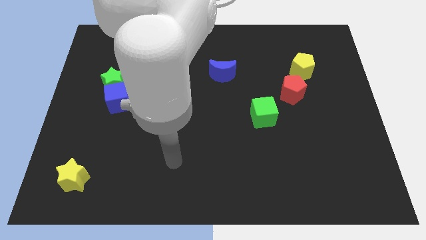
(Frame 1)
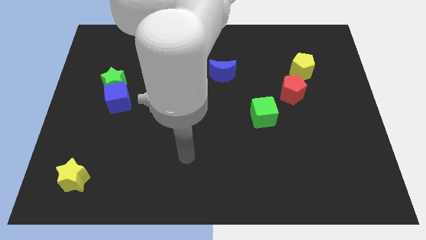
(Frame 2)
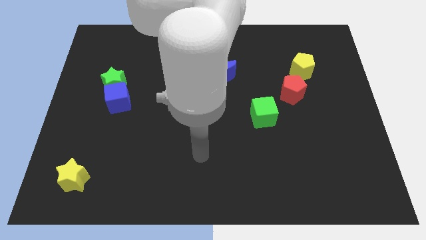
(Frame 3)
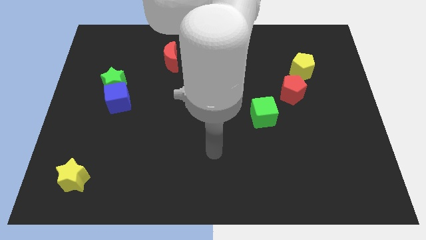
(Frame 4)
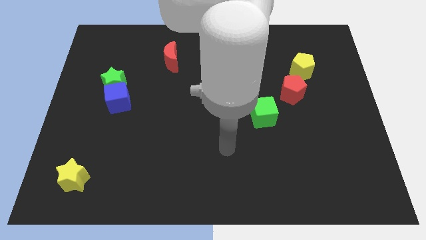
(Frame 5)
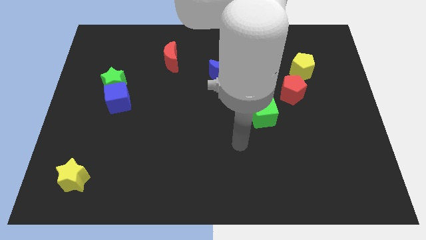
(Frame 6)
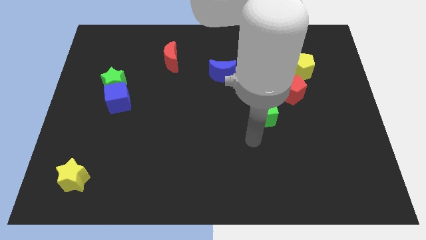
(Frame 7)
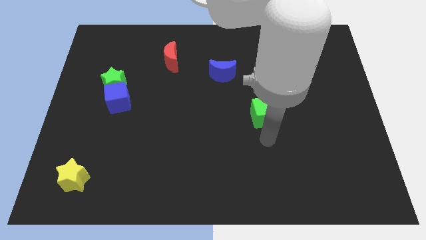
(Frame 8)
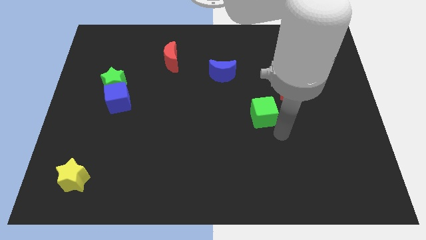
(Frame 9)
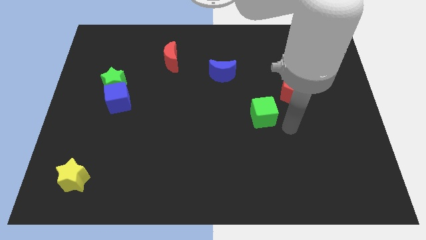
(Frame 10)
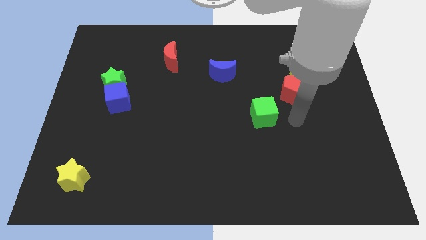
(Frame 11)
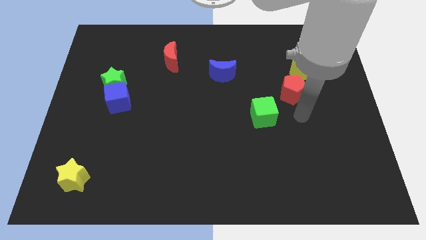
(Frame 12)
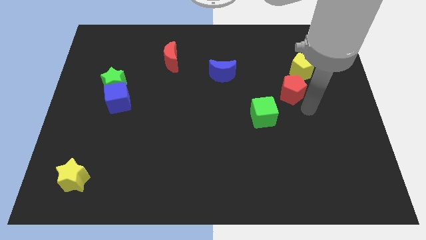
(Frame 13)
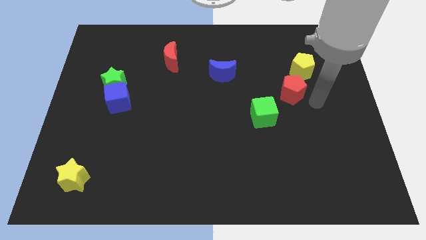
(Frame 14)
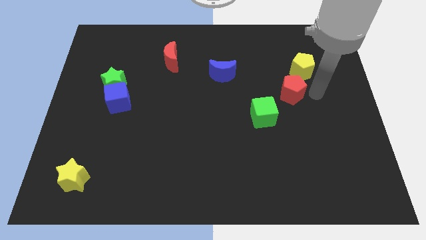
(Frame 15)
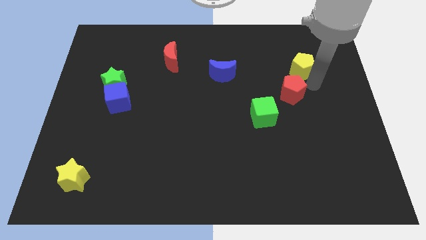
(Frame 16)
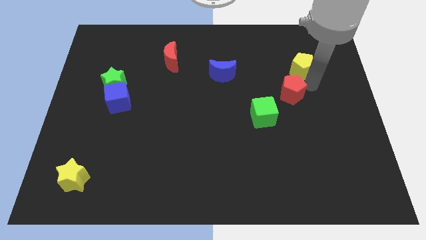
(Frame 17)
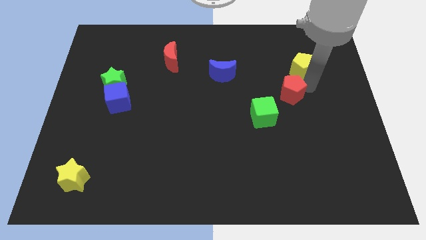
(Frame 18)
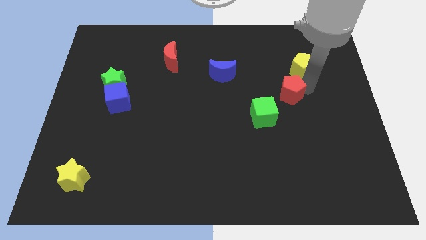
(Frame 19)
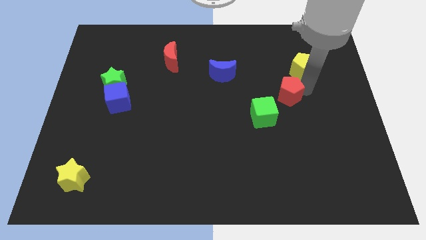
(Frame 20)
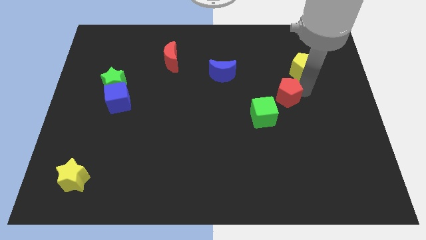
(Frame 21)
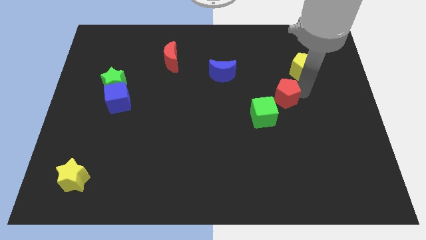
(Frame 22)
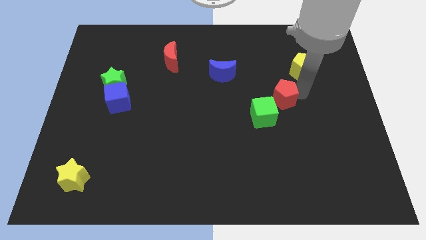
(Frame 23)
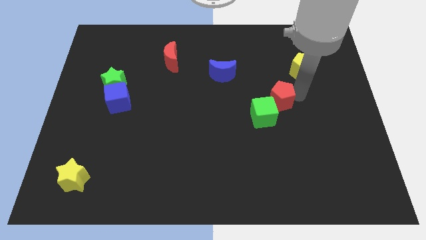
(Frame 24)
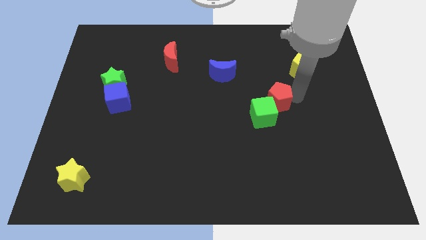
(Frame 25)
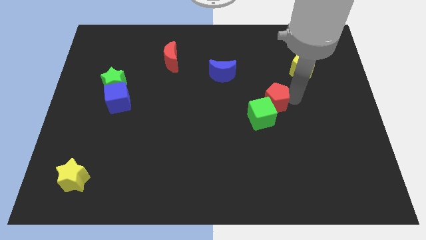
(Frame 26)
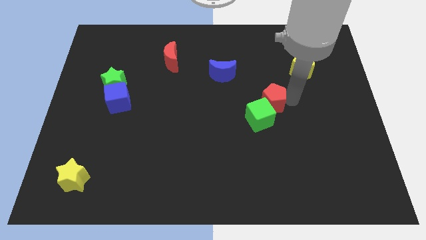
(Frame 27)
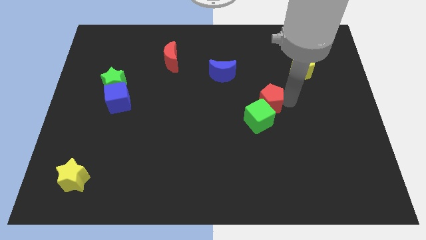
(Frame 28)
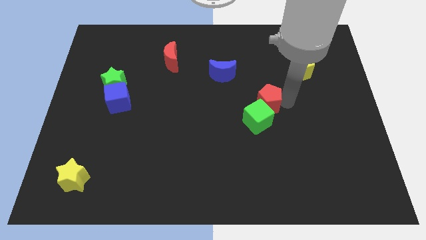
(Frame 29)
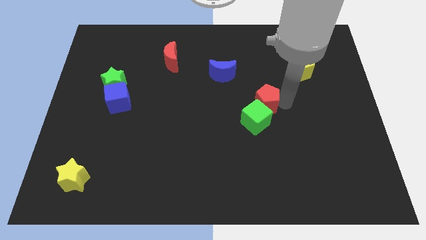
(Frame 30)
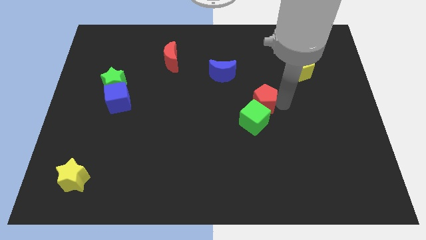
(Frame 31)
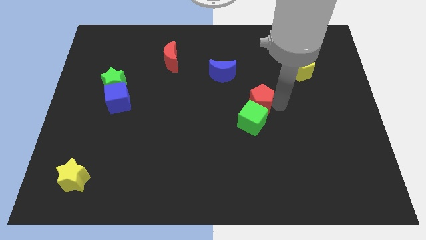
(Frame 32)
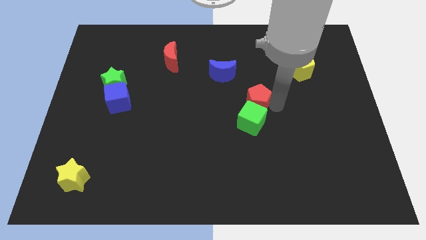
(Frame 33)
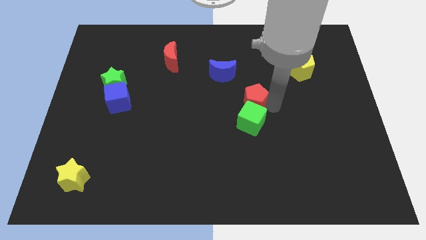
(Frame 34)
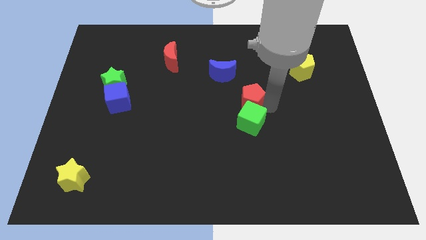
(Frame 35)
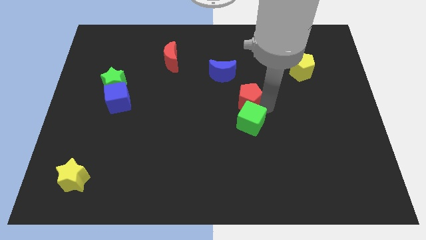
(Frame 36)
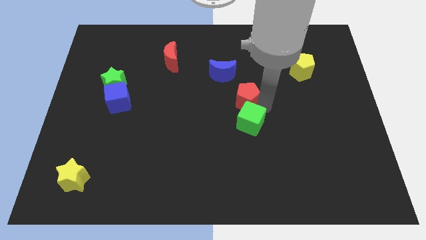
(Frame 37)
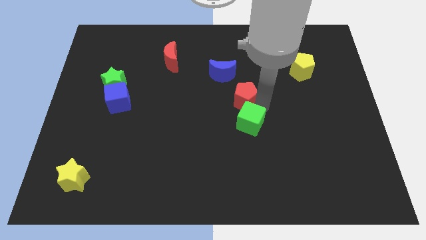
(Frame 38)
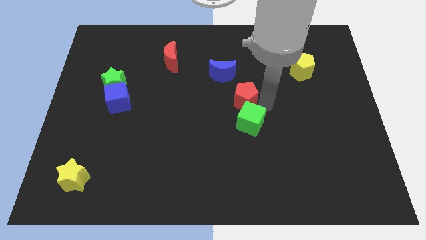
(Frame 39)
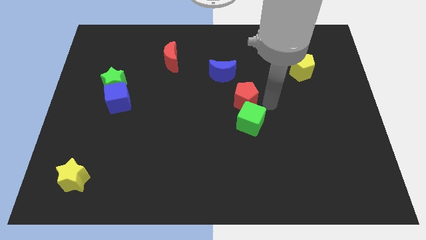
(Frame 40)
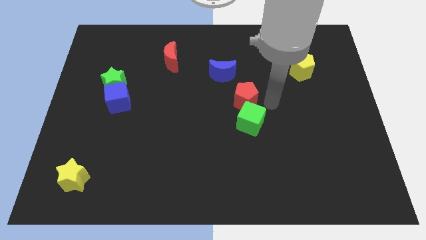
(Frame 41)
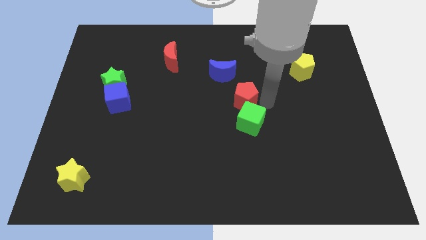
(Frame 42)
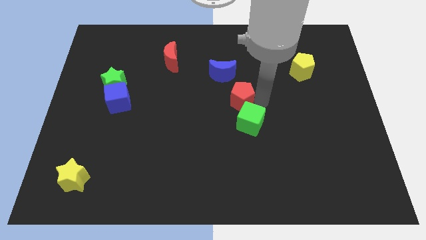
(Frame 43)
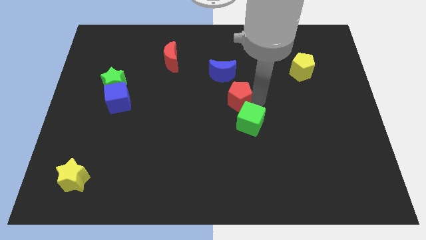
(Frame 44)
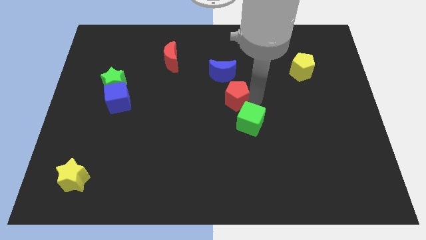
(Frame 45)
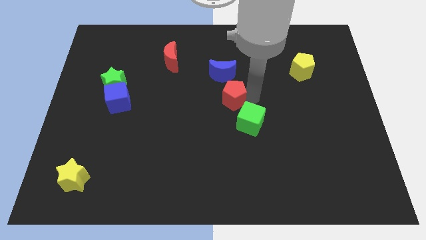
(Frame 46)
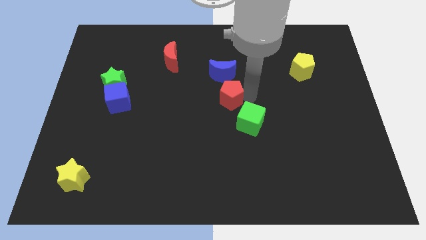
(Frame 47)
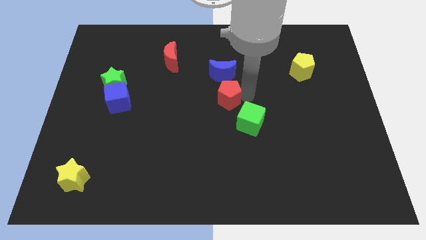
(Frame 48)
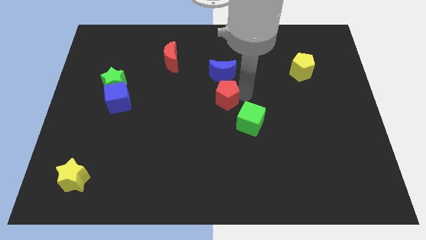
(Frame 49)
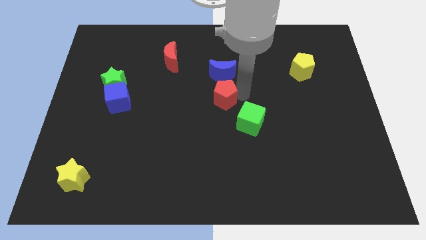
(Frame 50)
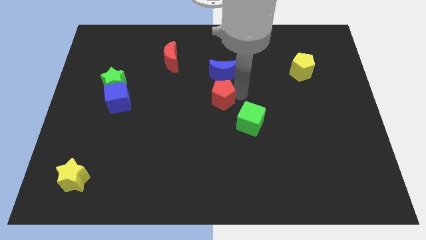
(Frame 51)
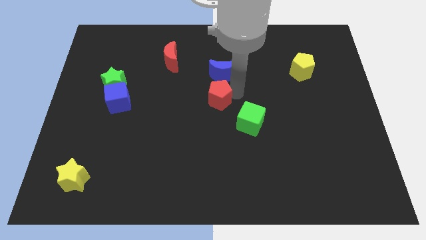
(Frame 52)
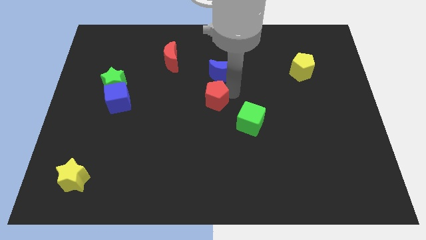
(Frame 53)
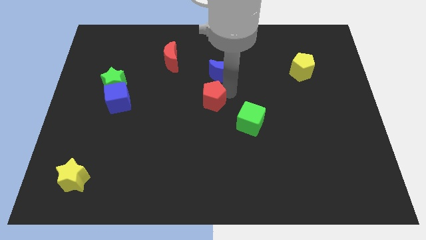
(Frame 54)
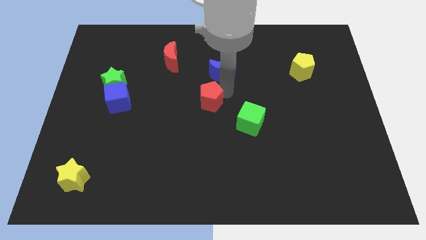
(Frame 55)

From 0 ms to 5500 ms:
push the red pentagon to the left

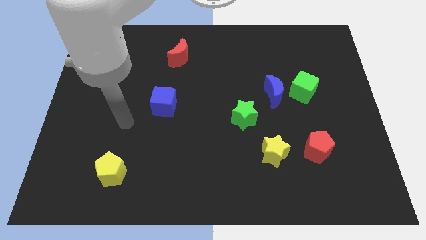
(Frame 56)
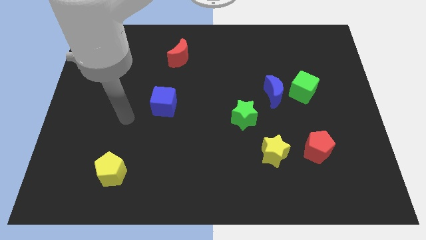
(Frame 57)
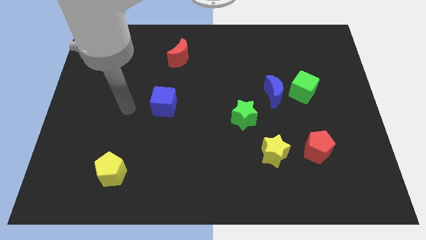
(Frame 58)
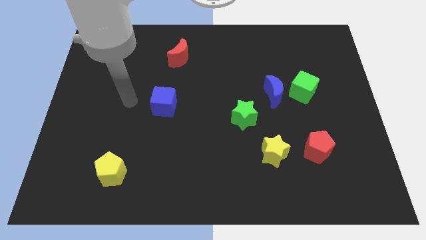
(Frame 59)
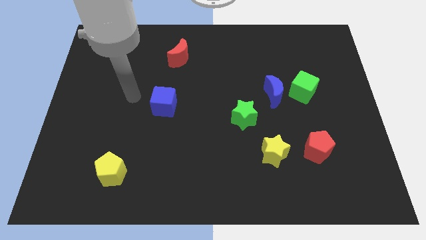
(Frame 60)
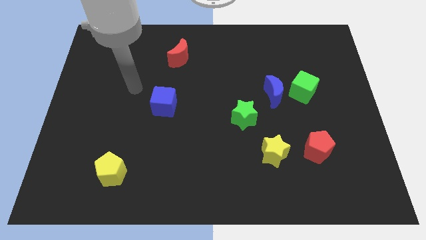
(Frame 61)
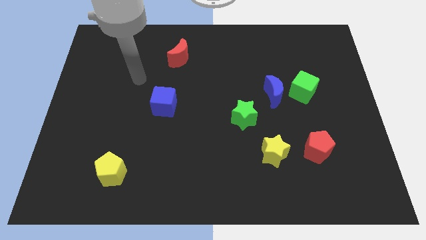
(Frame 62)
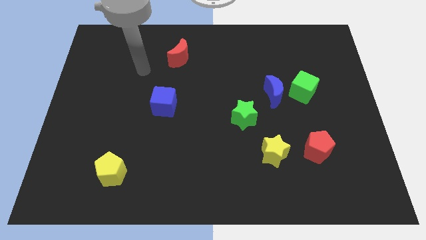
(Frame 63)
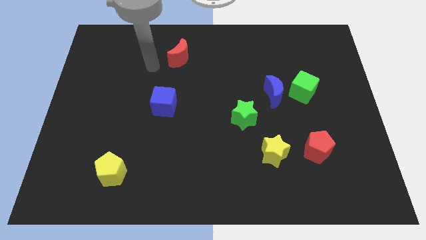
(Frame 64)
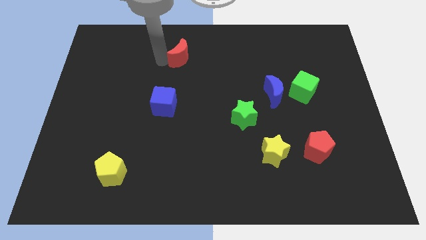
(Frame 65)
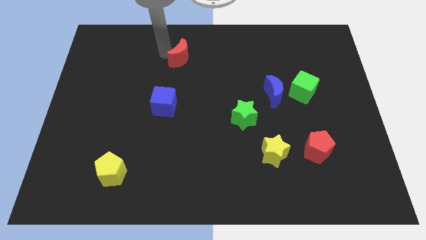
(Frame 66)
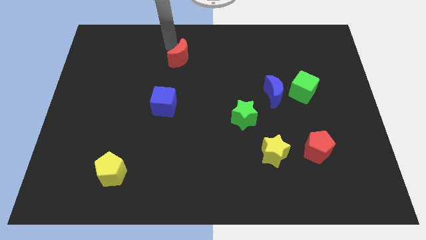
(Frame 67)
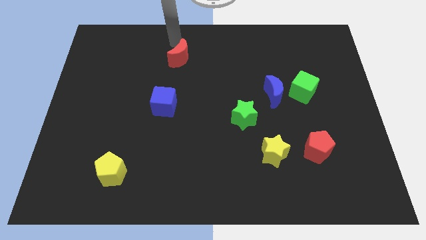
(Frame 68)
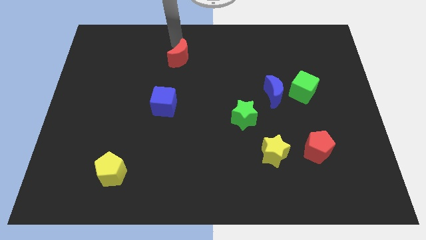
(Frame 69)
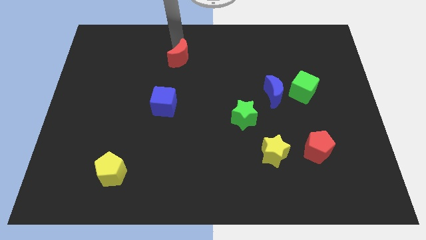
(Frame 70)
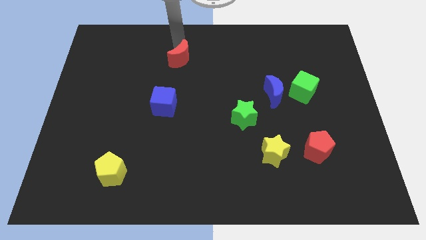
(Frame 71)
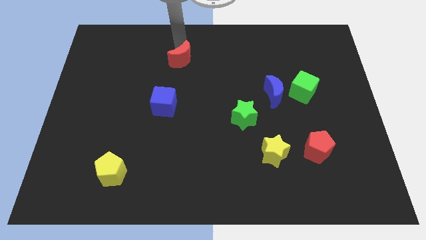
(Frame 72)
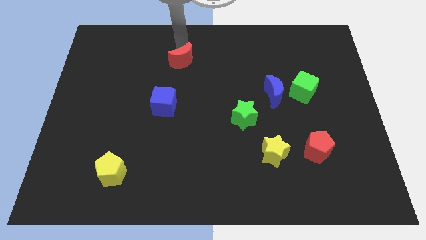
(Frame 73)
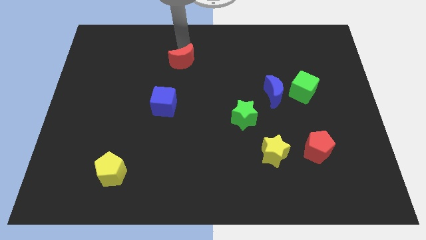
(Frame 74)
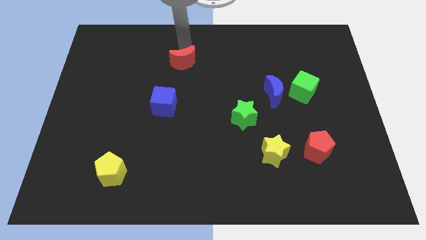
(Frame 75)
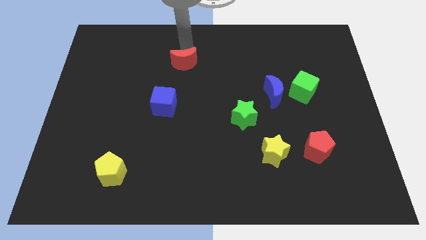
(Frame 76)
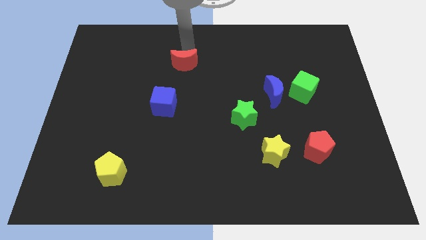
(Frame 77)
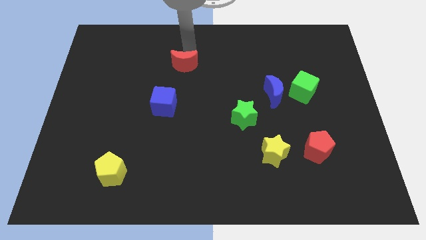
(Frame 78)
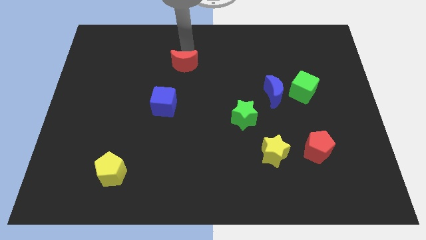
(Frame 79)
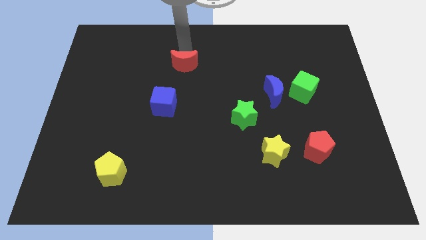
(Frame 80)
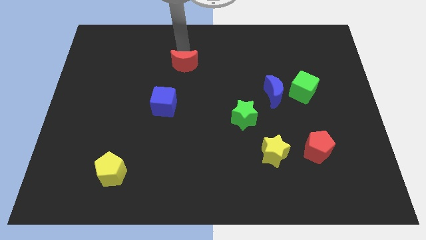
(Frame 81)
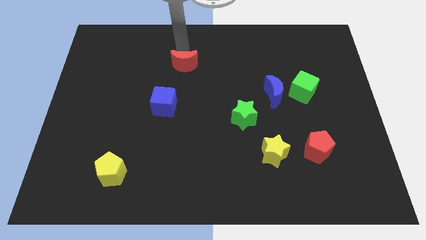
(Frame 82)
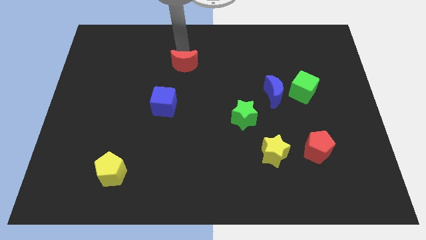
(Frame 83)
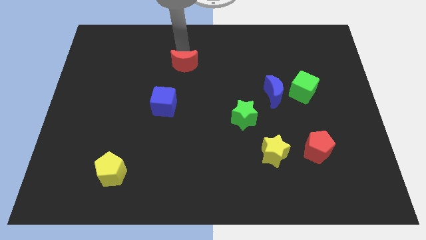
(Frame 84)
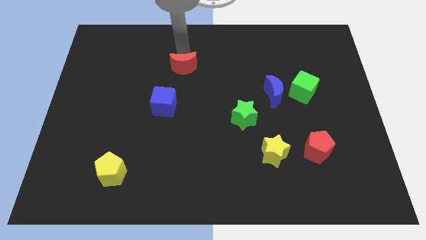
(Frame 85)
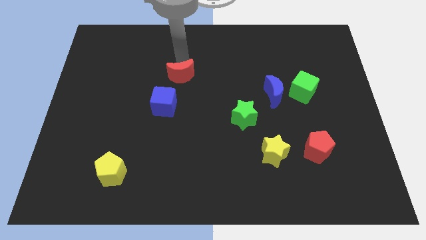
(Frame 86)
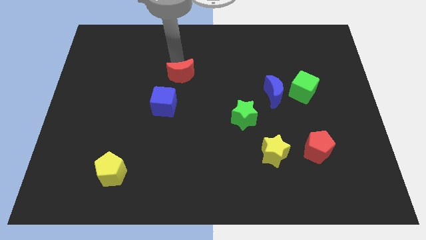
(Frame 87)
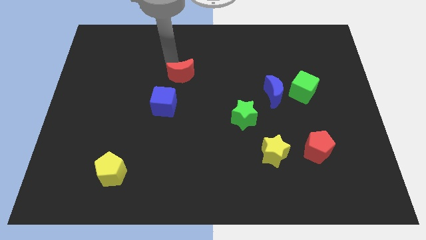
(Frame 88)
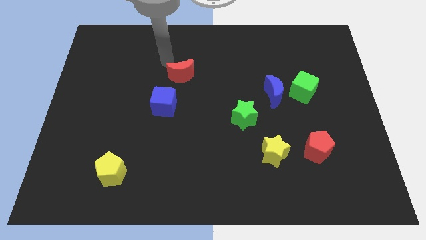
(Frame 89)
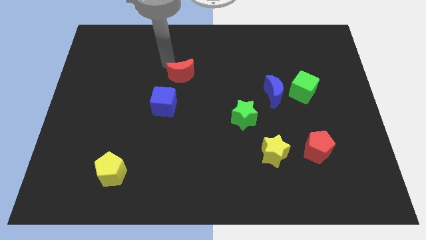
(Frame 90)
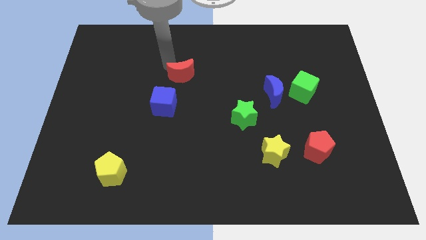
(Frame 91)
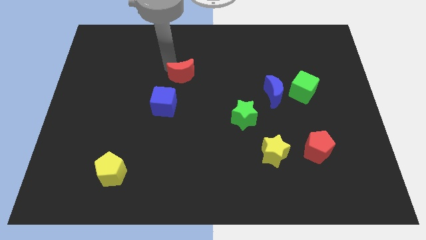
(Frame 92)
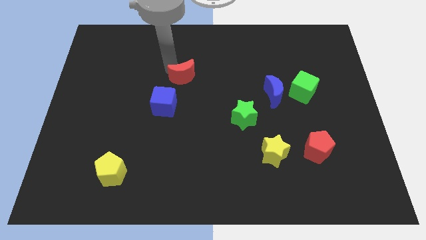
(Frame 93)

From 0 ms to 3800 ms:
slide the red moon downwards slightly
